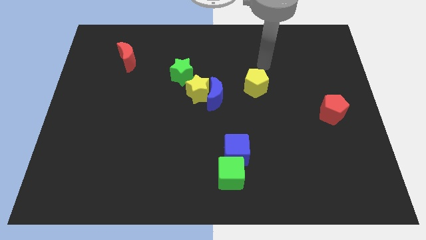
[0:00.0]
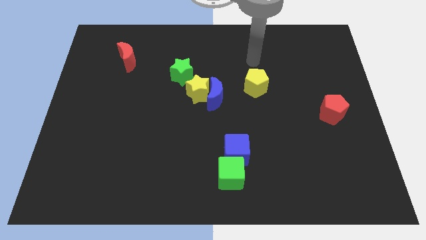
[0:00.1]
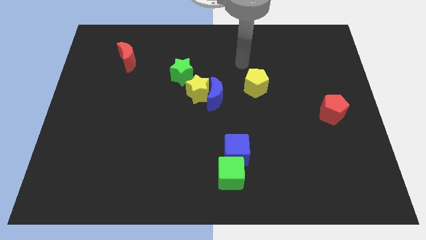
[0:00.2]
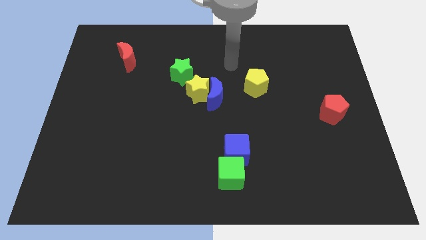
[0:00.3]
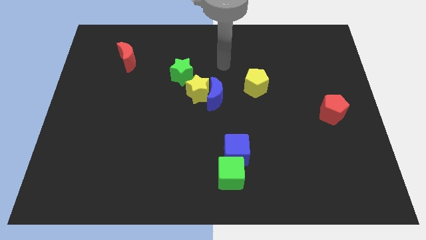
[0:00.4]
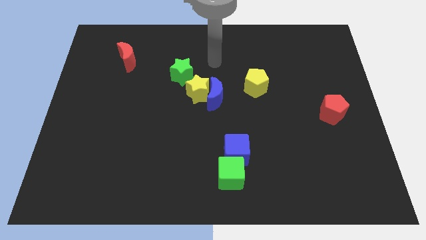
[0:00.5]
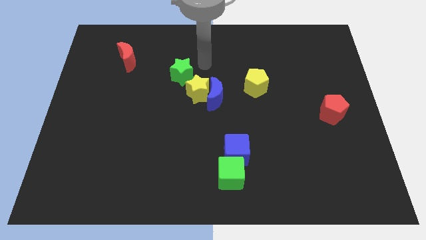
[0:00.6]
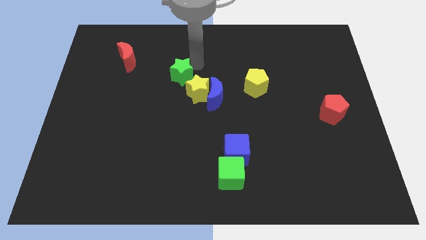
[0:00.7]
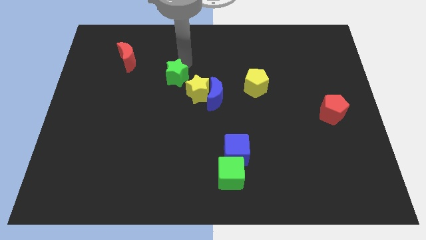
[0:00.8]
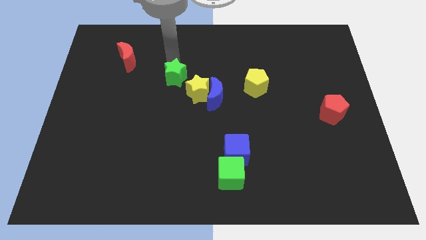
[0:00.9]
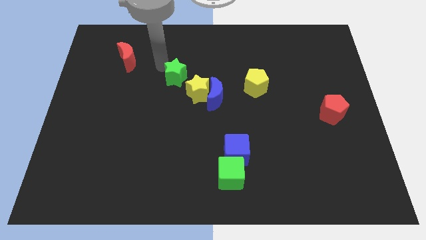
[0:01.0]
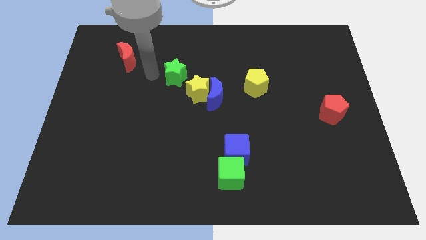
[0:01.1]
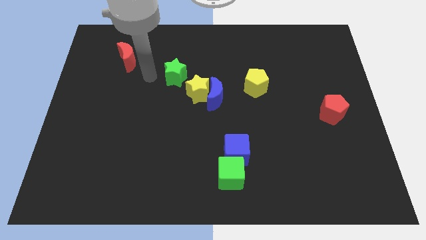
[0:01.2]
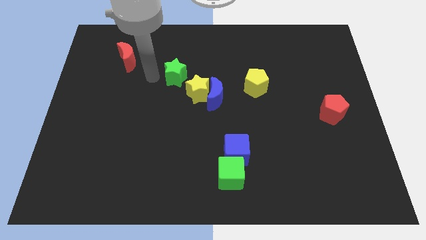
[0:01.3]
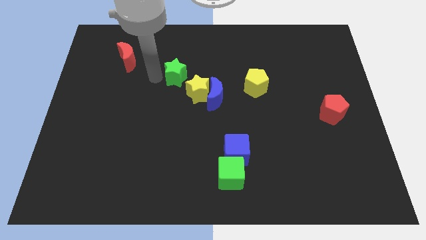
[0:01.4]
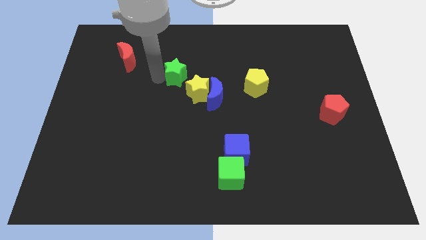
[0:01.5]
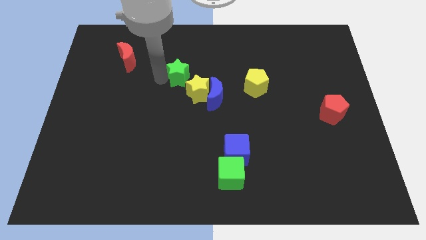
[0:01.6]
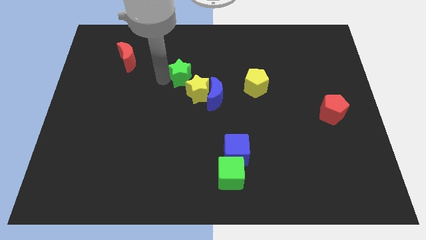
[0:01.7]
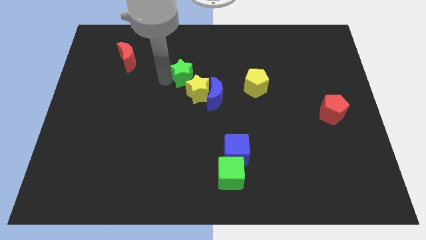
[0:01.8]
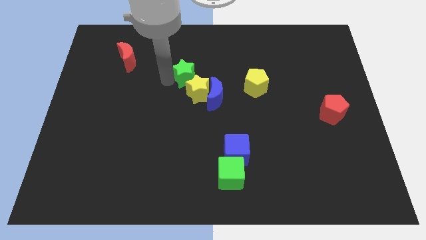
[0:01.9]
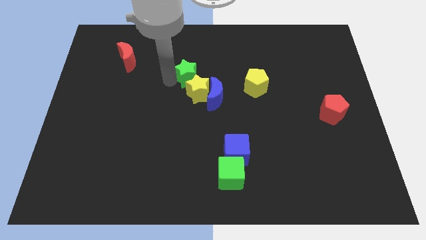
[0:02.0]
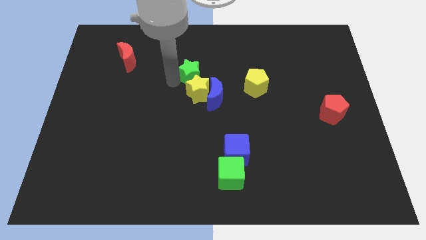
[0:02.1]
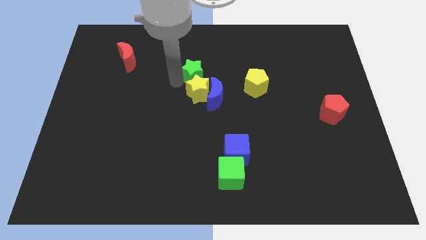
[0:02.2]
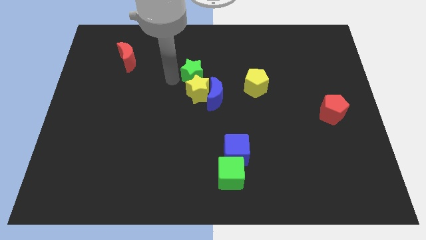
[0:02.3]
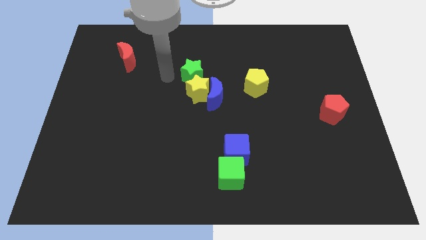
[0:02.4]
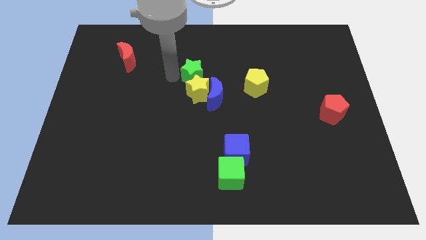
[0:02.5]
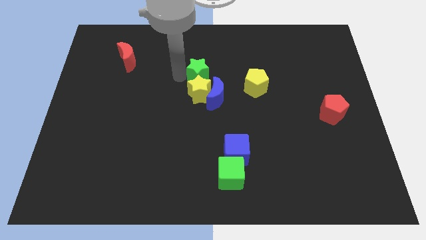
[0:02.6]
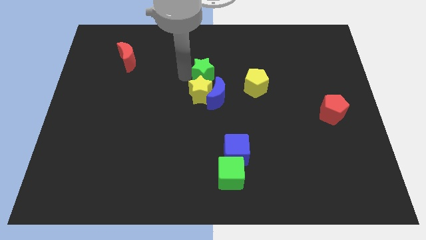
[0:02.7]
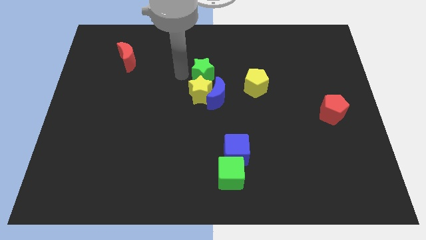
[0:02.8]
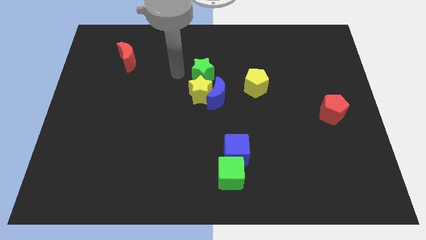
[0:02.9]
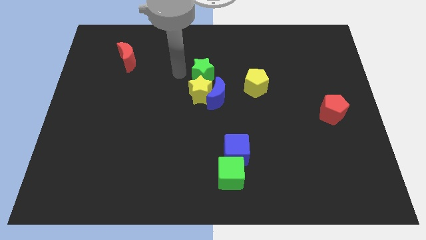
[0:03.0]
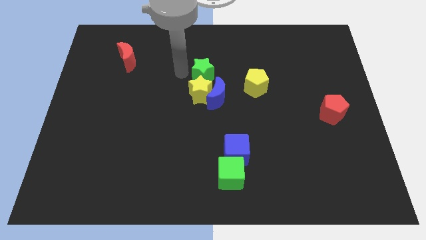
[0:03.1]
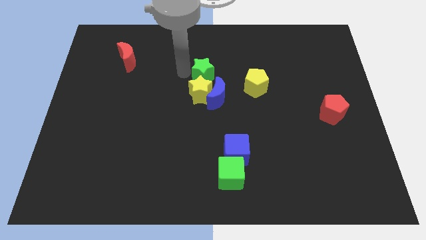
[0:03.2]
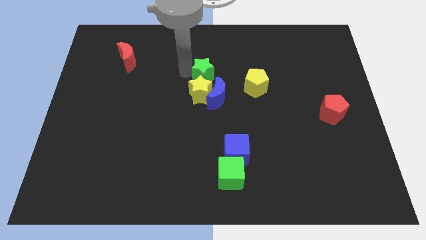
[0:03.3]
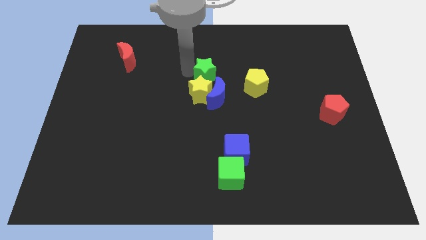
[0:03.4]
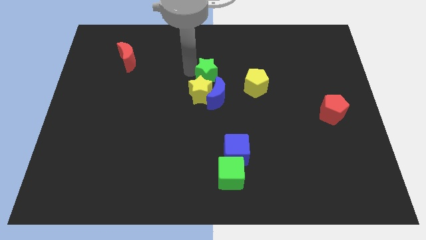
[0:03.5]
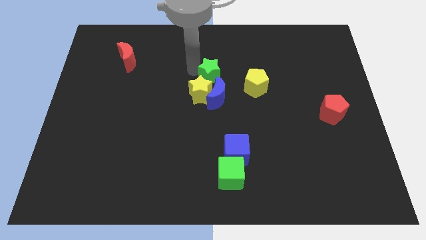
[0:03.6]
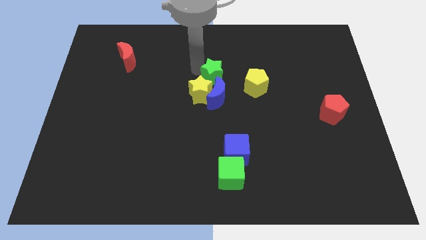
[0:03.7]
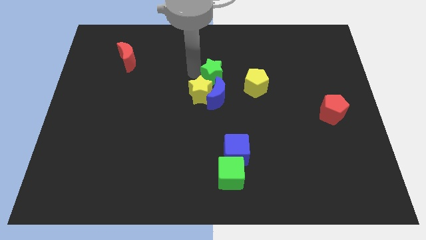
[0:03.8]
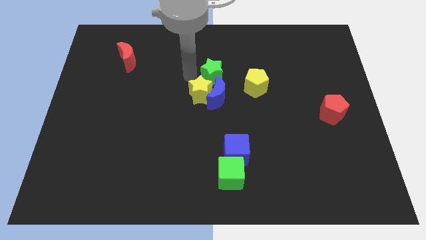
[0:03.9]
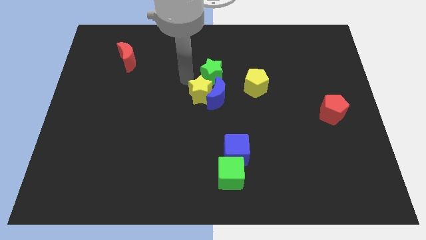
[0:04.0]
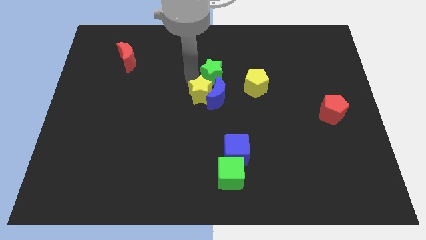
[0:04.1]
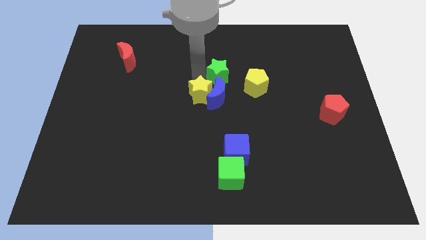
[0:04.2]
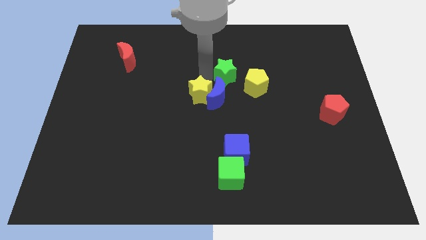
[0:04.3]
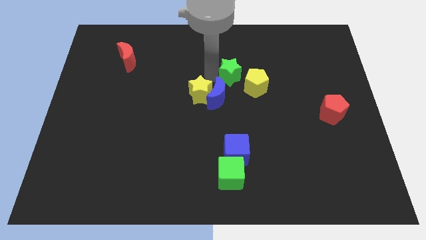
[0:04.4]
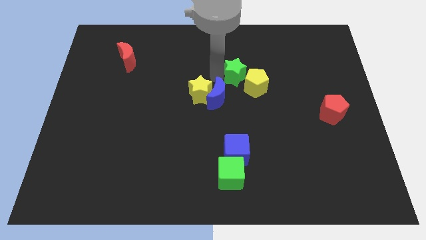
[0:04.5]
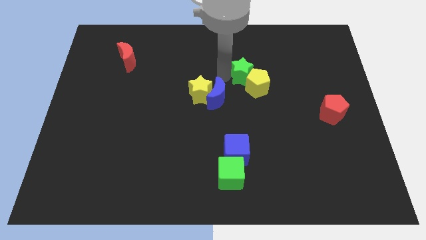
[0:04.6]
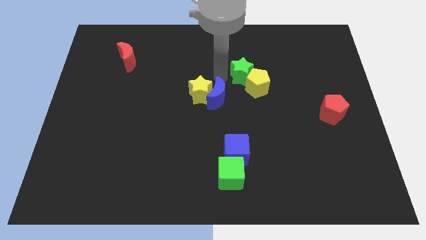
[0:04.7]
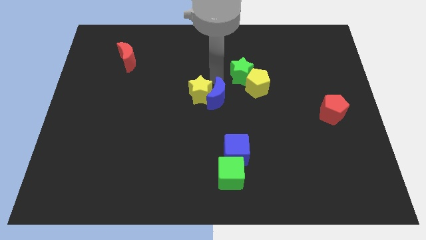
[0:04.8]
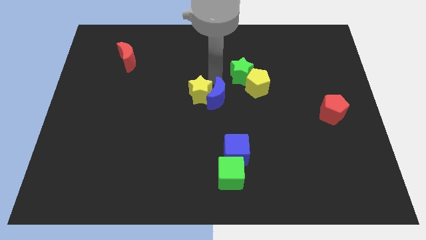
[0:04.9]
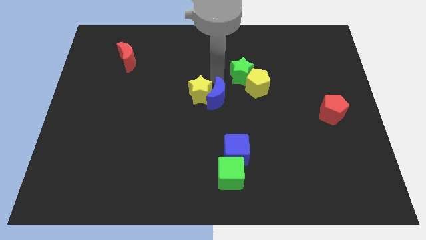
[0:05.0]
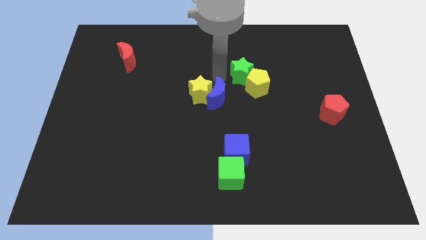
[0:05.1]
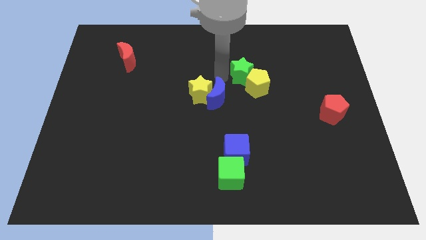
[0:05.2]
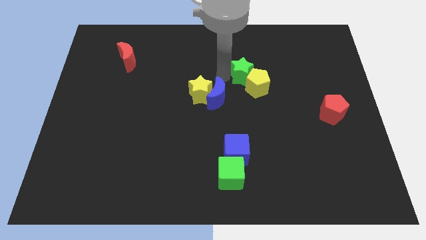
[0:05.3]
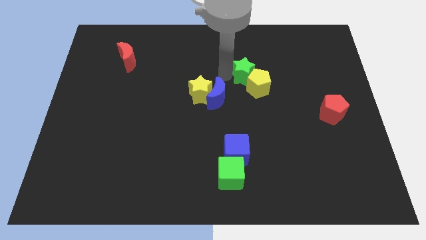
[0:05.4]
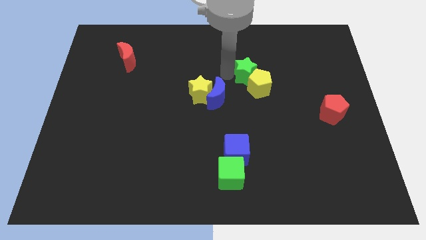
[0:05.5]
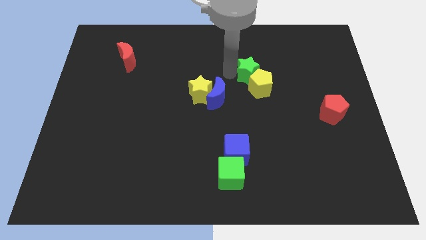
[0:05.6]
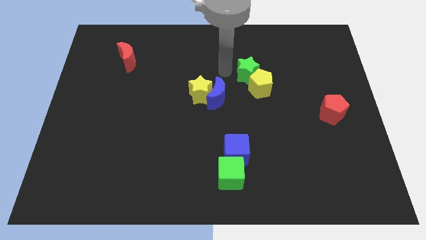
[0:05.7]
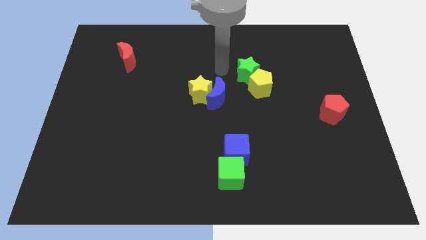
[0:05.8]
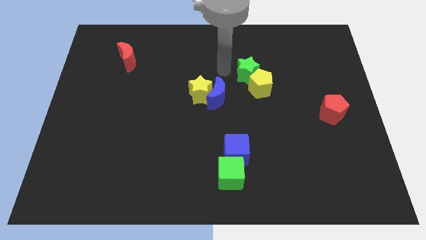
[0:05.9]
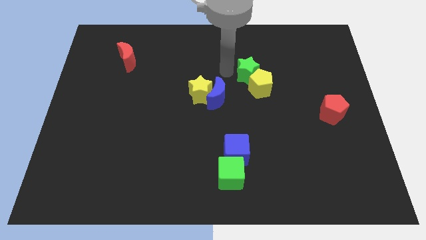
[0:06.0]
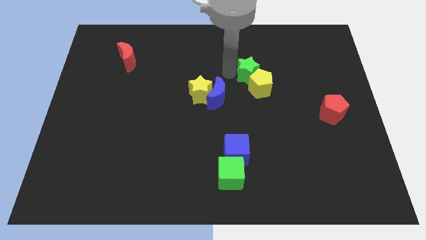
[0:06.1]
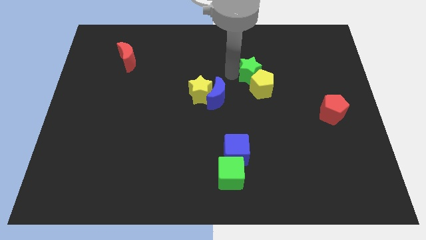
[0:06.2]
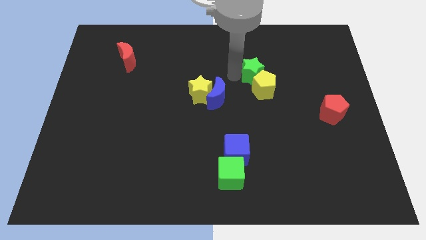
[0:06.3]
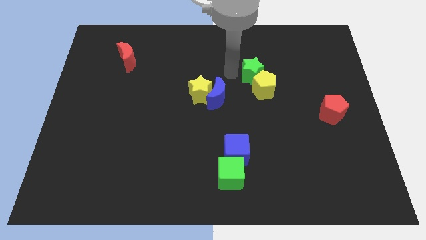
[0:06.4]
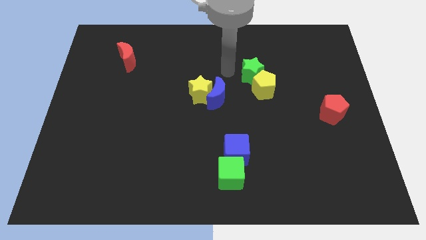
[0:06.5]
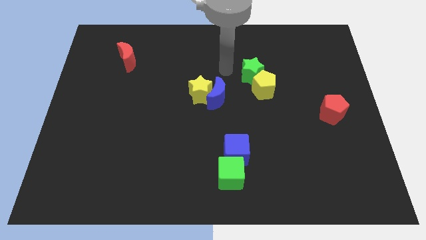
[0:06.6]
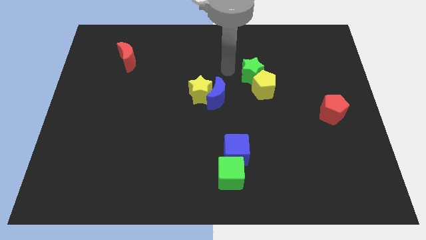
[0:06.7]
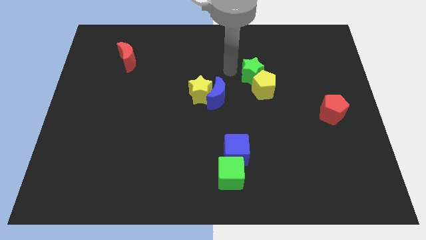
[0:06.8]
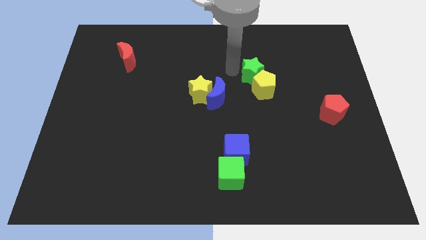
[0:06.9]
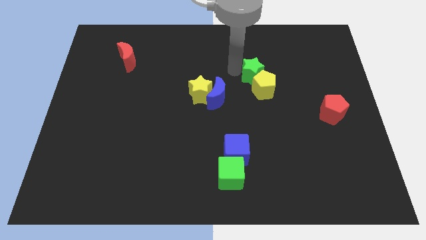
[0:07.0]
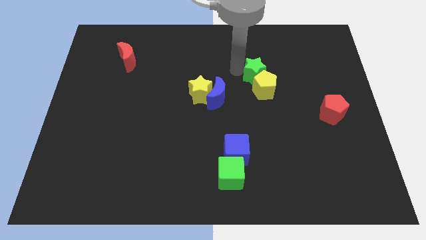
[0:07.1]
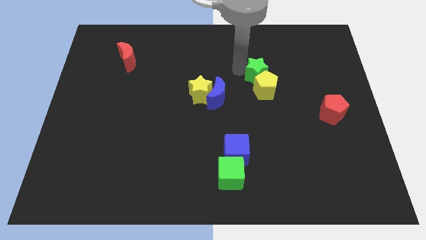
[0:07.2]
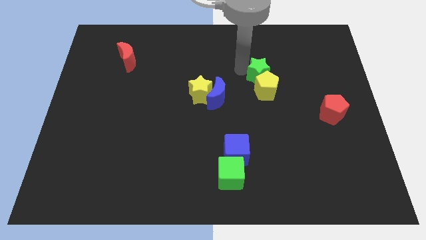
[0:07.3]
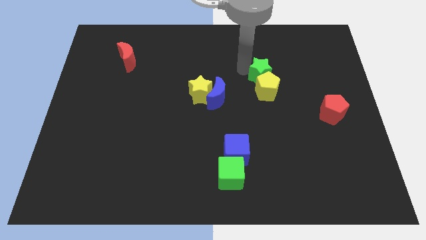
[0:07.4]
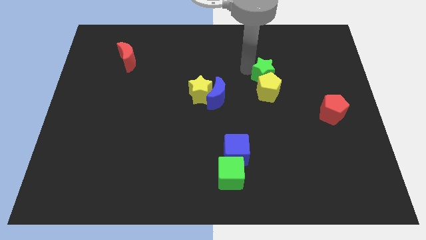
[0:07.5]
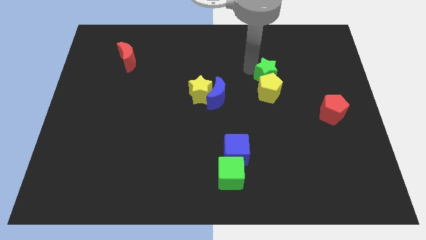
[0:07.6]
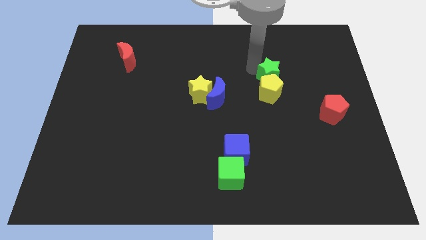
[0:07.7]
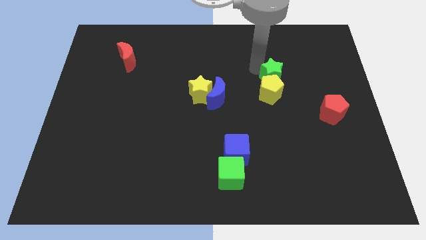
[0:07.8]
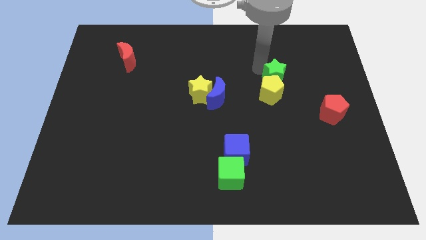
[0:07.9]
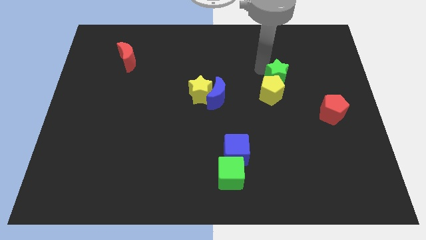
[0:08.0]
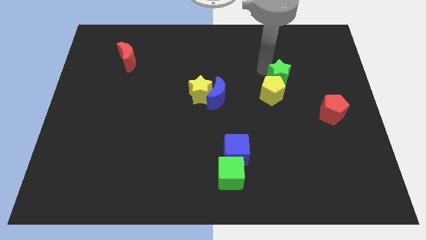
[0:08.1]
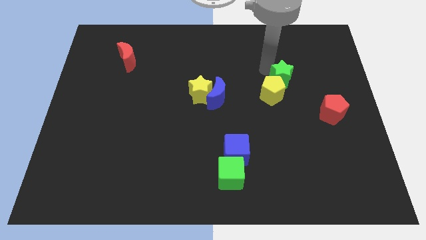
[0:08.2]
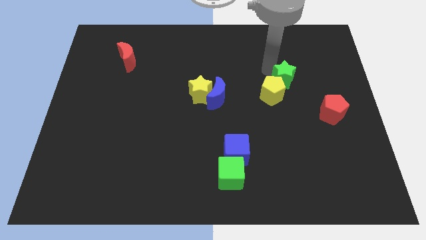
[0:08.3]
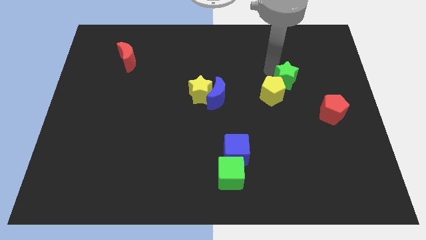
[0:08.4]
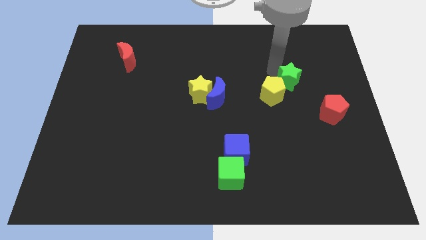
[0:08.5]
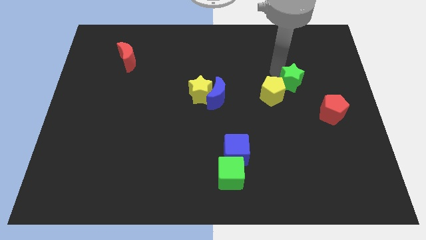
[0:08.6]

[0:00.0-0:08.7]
put the green star to the top left of the red pentagon
